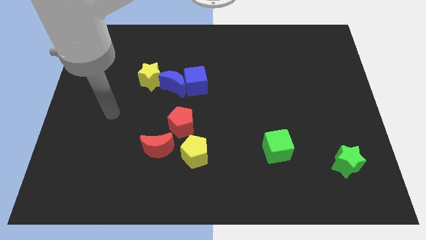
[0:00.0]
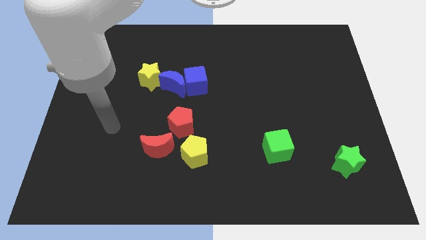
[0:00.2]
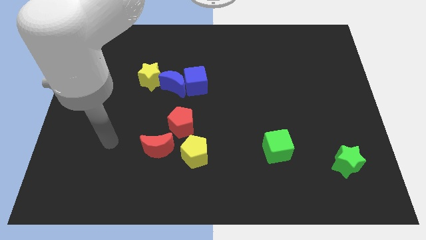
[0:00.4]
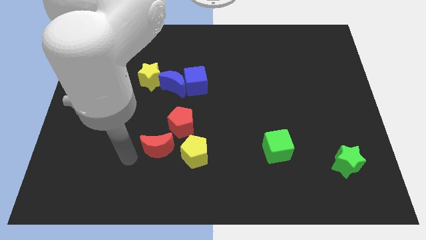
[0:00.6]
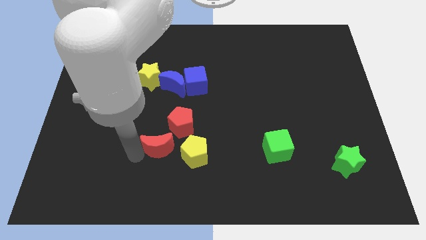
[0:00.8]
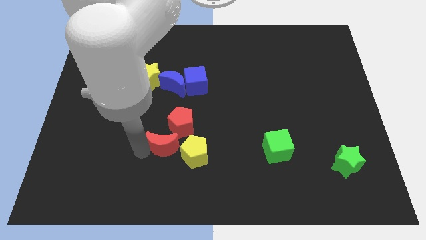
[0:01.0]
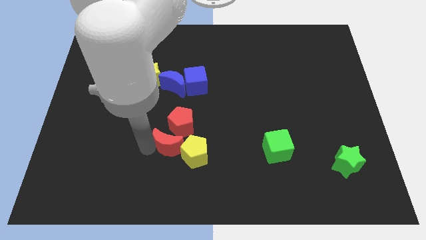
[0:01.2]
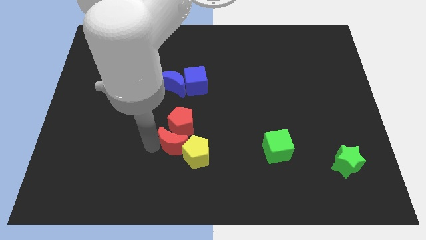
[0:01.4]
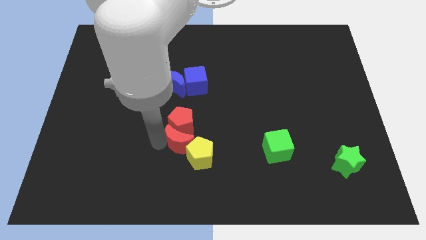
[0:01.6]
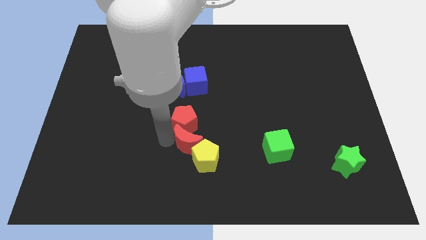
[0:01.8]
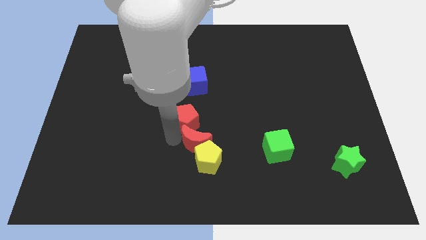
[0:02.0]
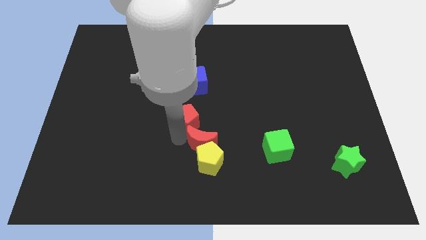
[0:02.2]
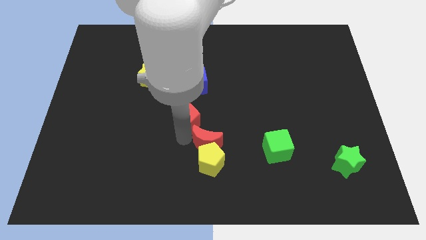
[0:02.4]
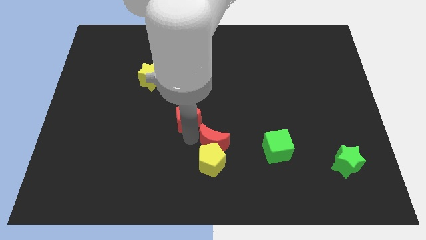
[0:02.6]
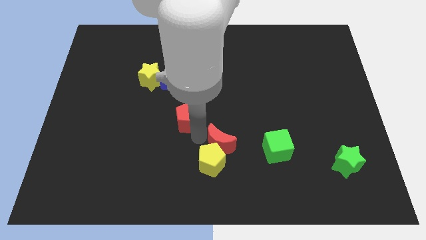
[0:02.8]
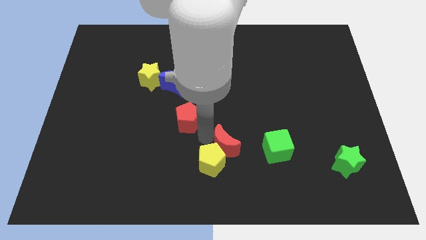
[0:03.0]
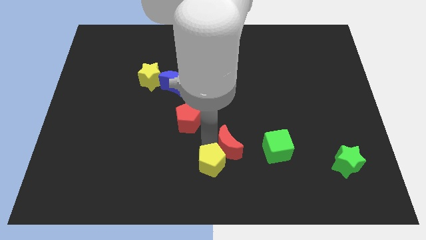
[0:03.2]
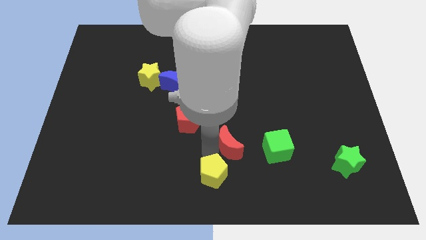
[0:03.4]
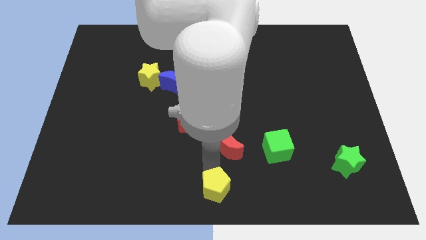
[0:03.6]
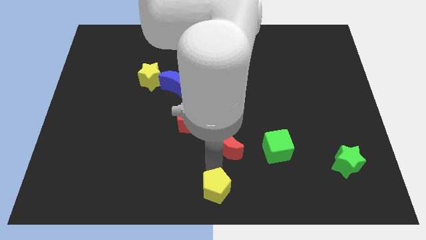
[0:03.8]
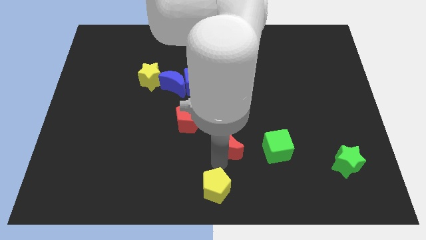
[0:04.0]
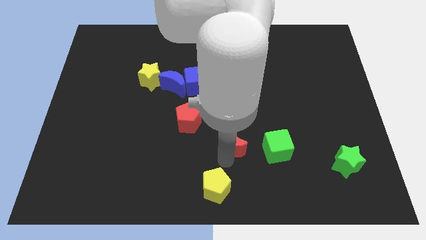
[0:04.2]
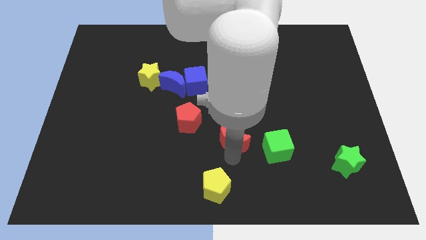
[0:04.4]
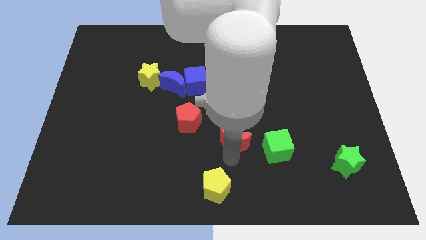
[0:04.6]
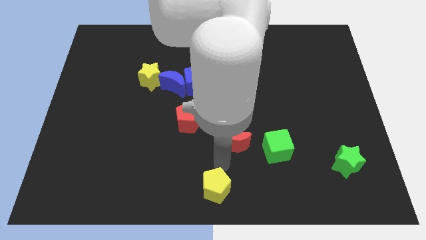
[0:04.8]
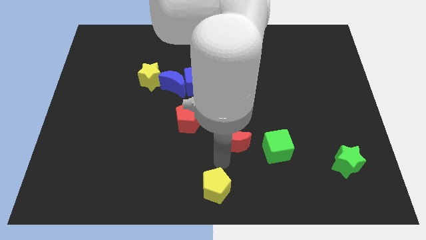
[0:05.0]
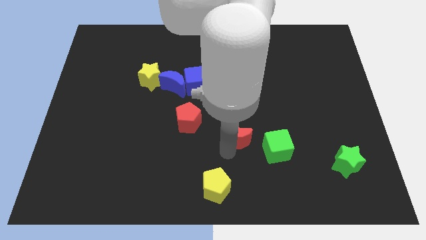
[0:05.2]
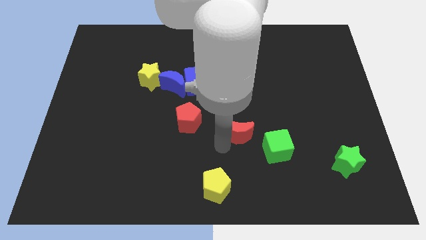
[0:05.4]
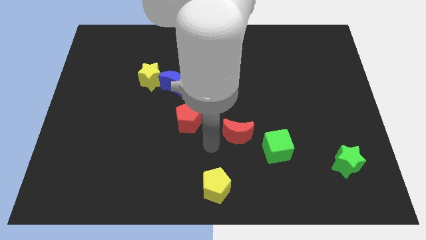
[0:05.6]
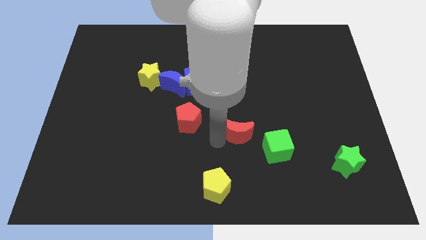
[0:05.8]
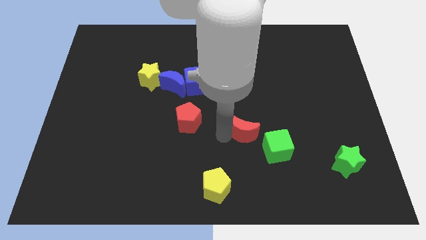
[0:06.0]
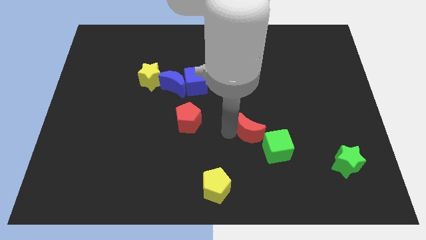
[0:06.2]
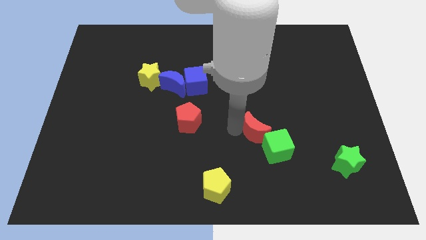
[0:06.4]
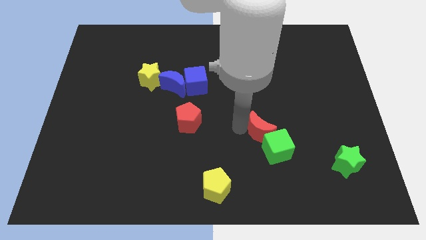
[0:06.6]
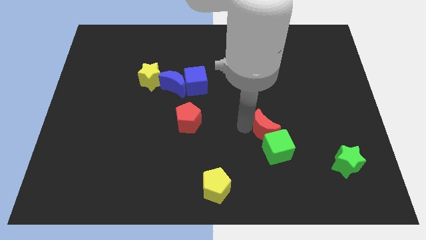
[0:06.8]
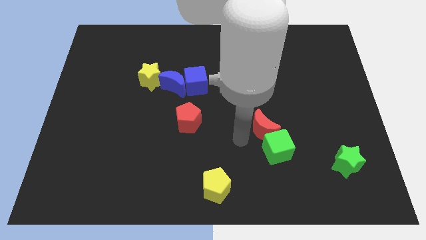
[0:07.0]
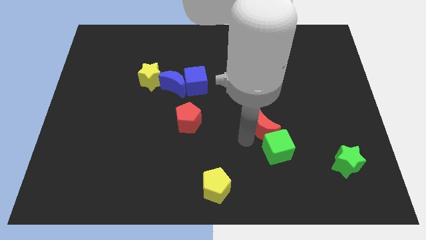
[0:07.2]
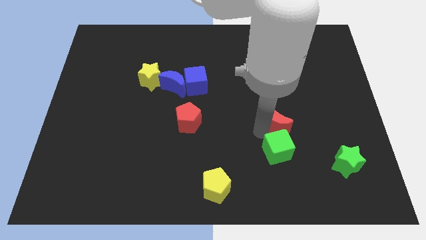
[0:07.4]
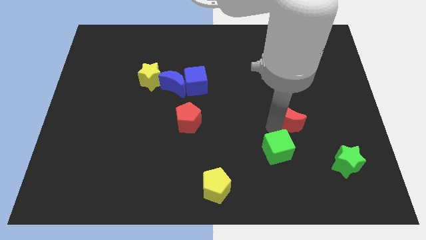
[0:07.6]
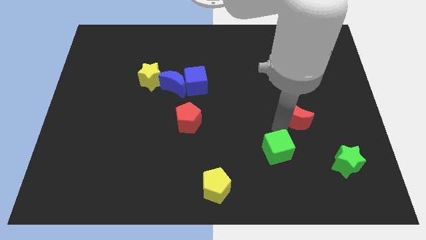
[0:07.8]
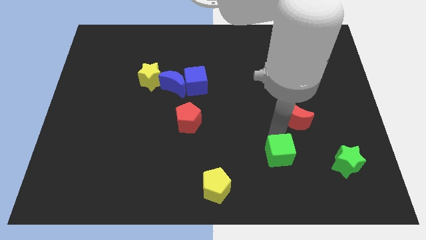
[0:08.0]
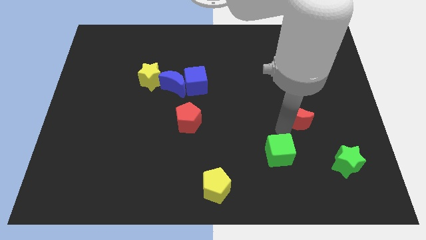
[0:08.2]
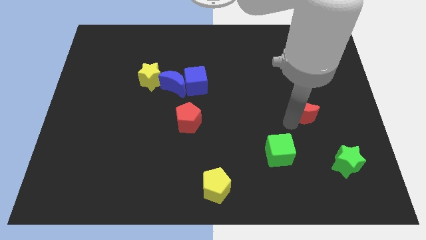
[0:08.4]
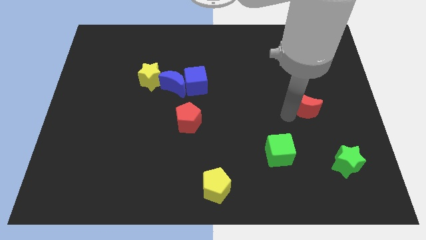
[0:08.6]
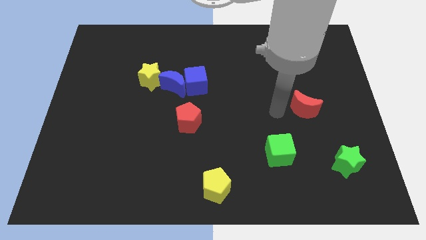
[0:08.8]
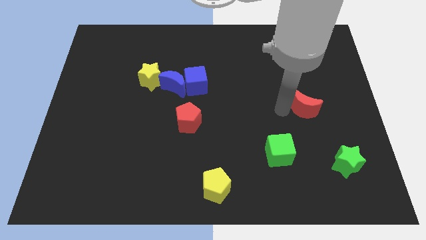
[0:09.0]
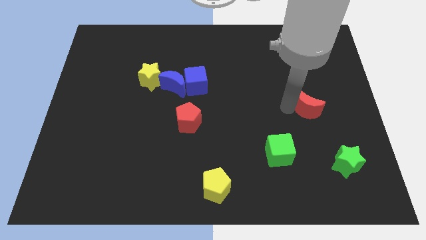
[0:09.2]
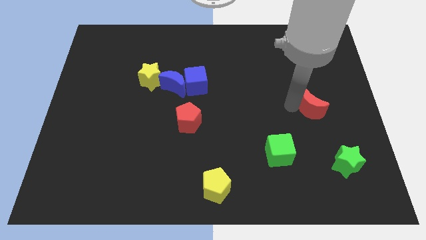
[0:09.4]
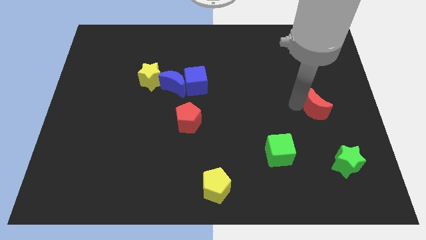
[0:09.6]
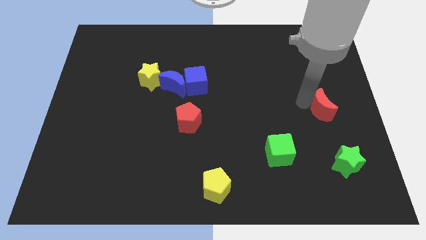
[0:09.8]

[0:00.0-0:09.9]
push the red moon to the right side of the board

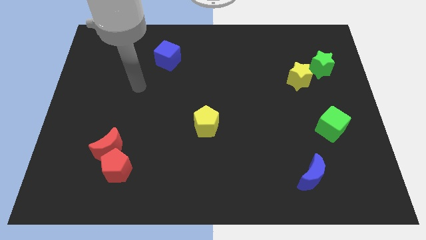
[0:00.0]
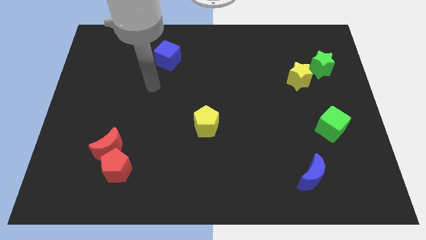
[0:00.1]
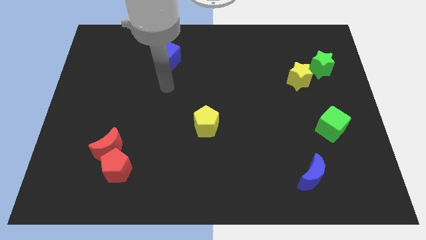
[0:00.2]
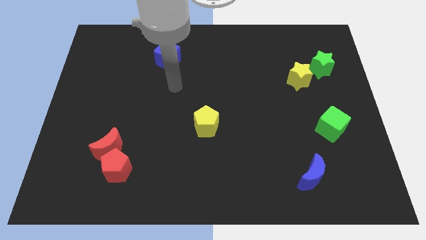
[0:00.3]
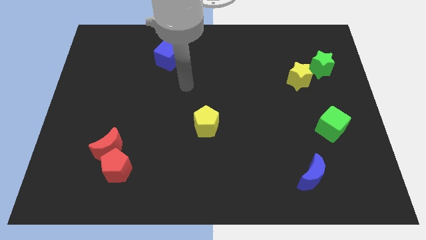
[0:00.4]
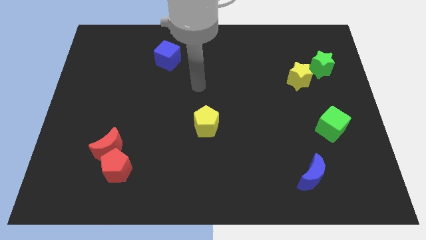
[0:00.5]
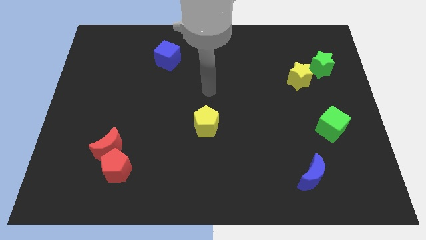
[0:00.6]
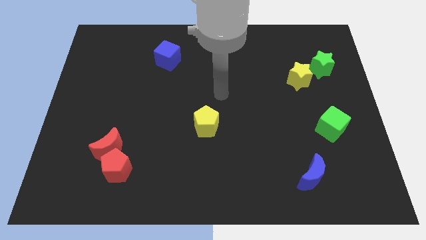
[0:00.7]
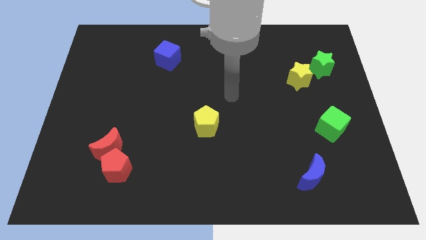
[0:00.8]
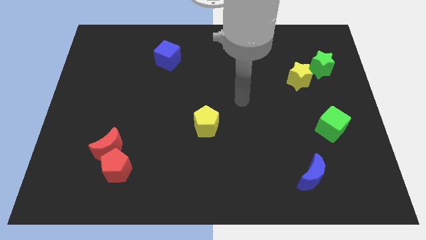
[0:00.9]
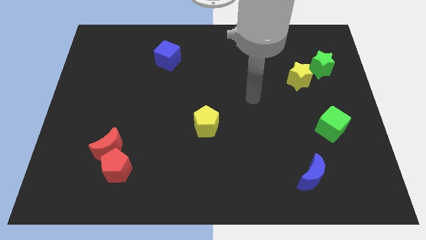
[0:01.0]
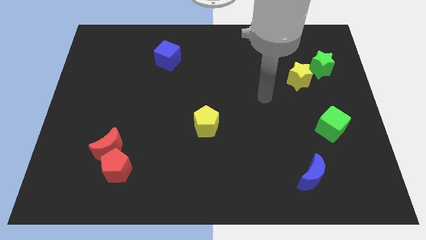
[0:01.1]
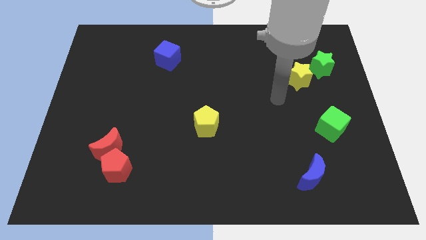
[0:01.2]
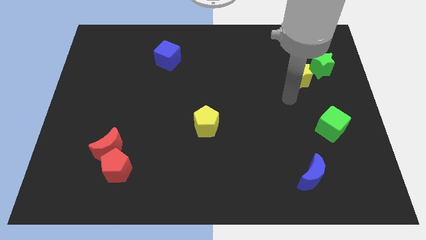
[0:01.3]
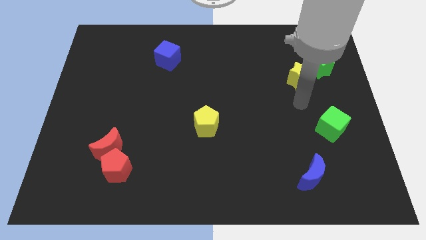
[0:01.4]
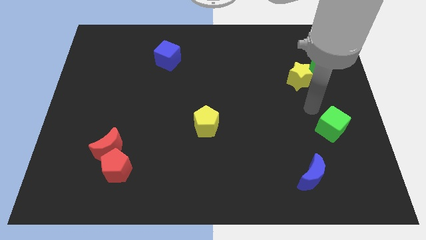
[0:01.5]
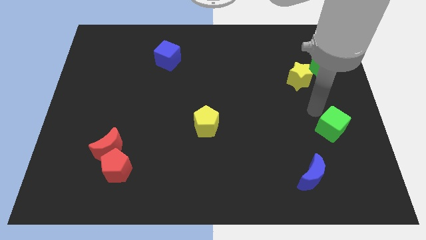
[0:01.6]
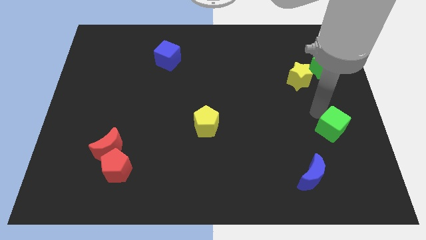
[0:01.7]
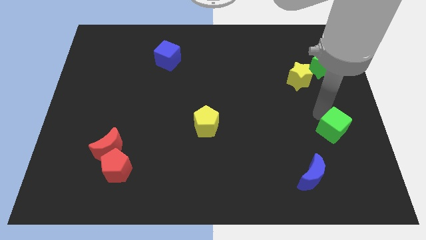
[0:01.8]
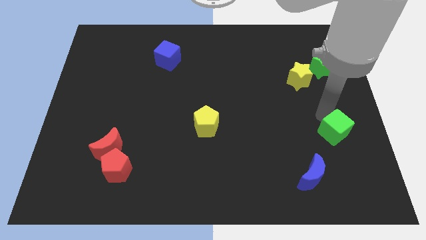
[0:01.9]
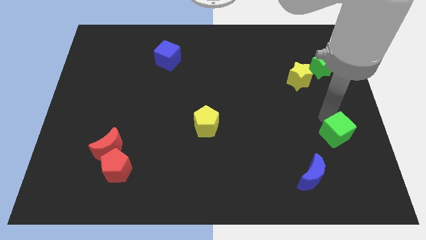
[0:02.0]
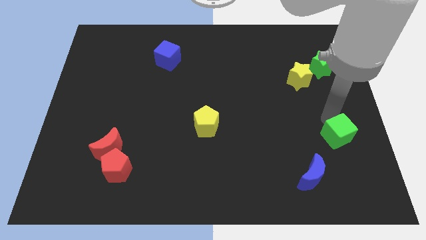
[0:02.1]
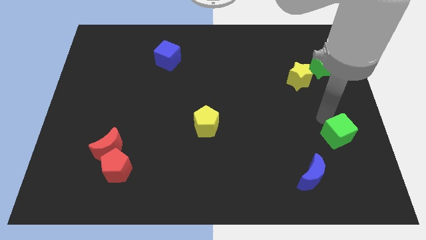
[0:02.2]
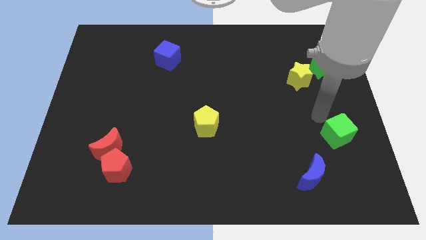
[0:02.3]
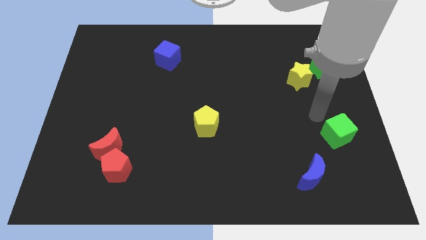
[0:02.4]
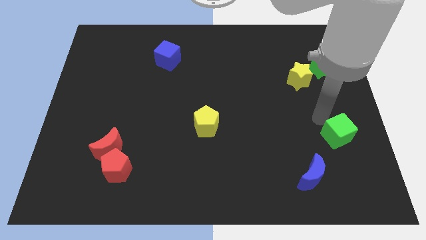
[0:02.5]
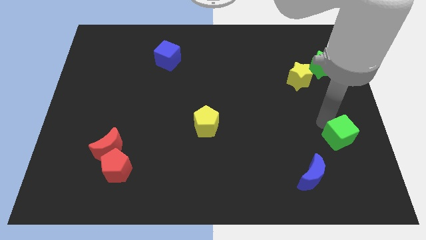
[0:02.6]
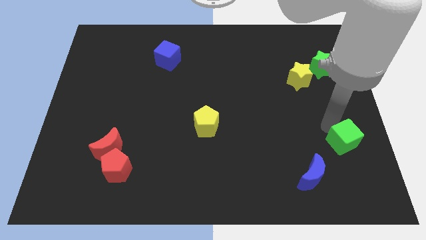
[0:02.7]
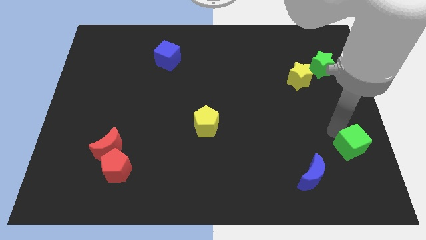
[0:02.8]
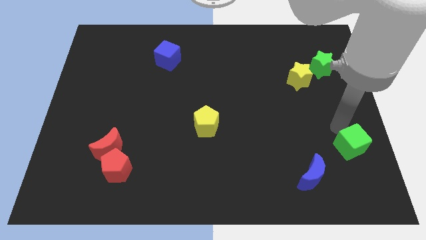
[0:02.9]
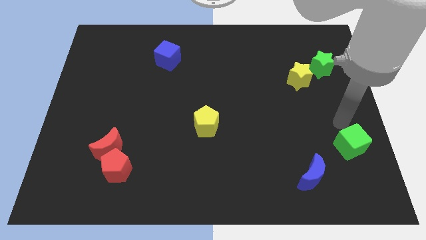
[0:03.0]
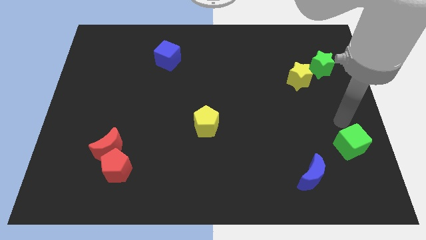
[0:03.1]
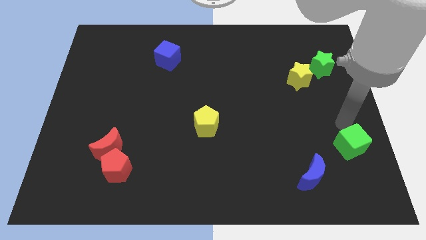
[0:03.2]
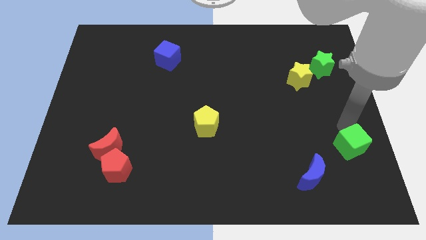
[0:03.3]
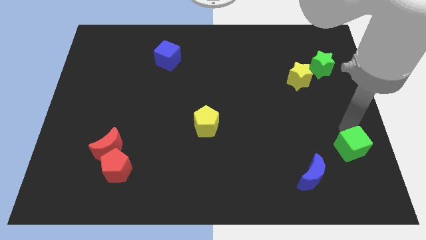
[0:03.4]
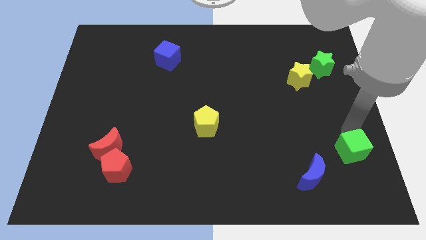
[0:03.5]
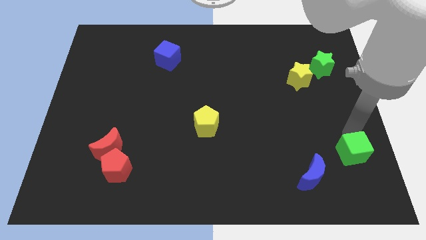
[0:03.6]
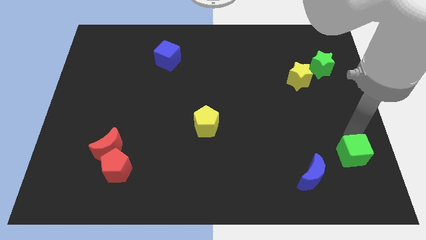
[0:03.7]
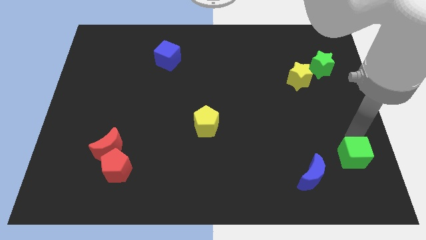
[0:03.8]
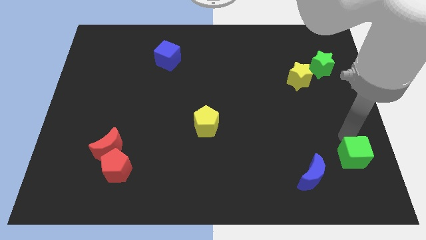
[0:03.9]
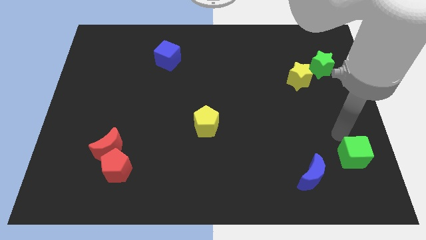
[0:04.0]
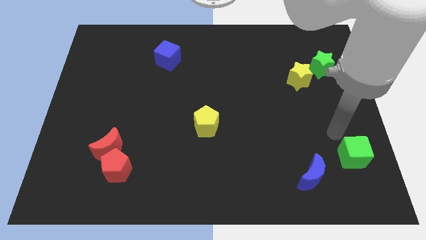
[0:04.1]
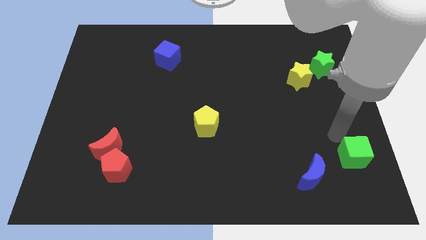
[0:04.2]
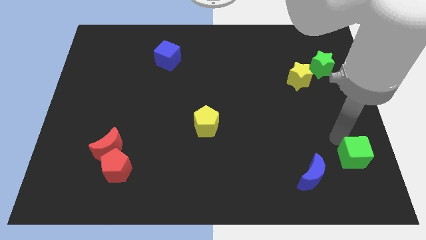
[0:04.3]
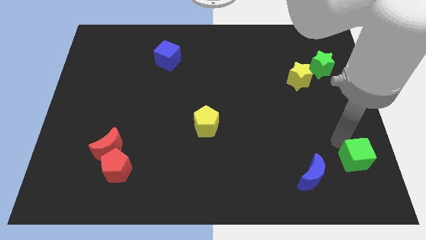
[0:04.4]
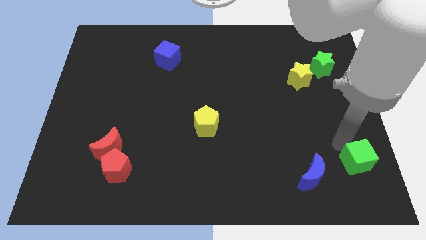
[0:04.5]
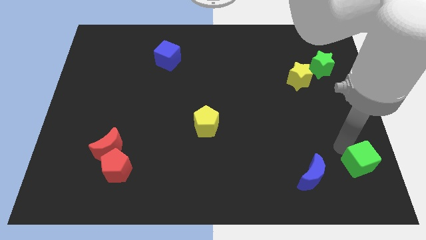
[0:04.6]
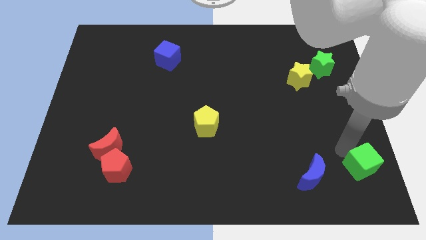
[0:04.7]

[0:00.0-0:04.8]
put the green cube to the bottom right of the board
